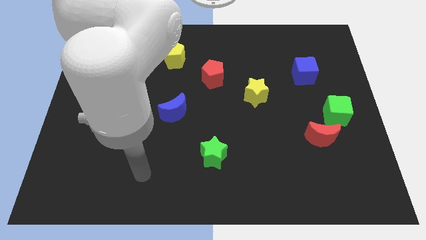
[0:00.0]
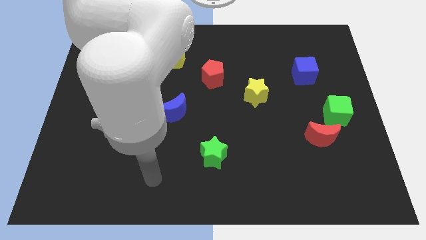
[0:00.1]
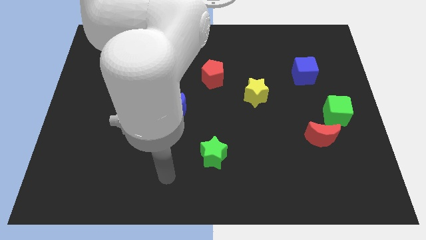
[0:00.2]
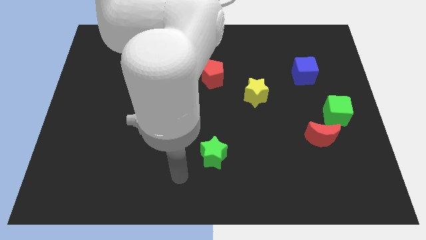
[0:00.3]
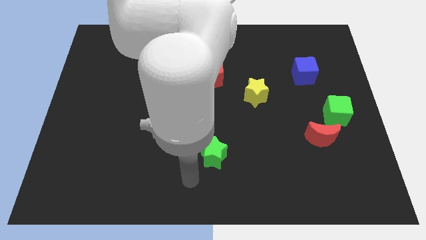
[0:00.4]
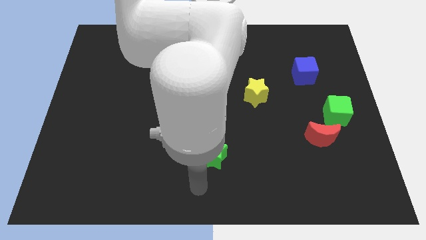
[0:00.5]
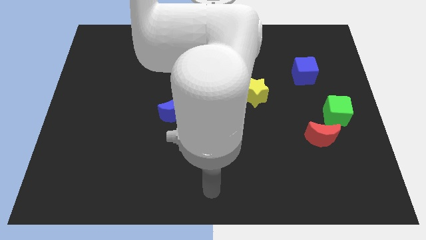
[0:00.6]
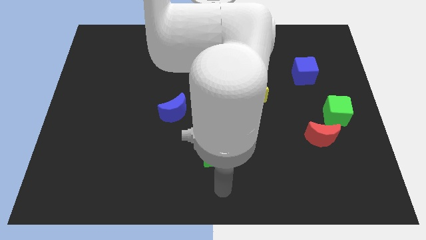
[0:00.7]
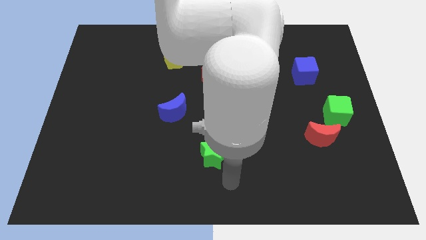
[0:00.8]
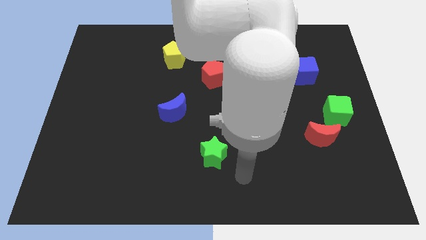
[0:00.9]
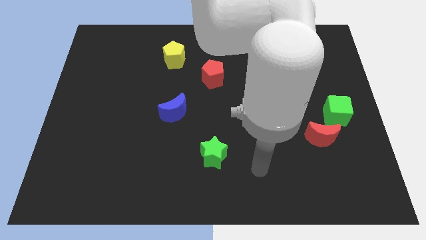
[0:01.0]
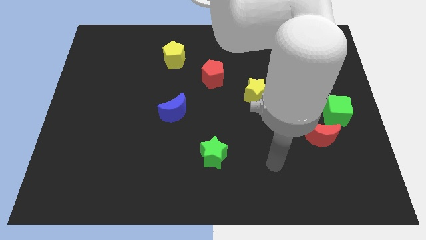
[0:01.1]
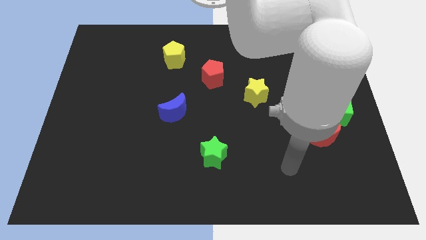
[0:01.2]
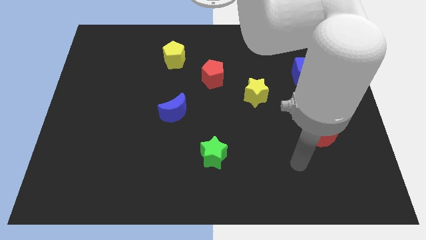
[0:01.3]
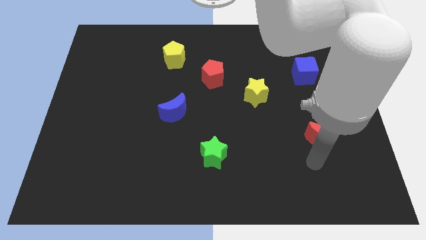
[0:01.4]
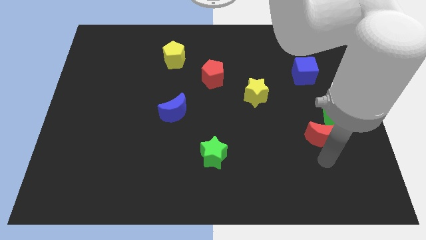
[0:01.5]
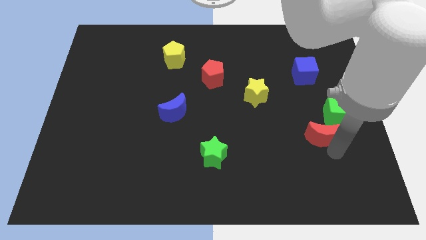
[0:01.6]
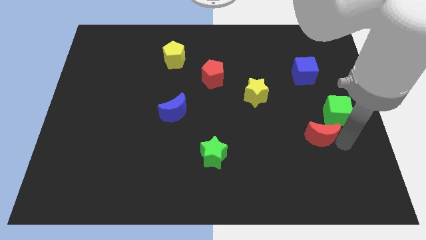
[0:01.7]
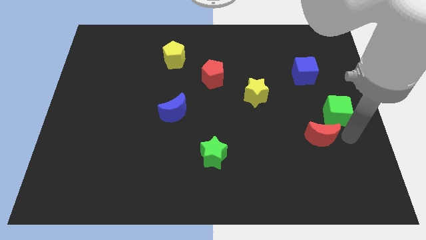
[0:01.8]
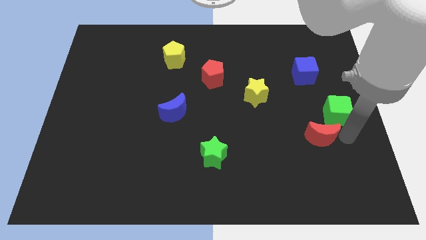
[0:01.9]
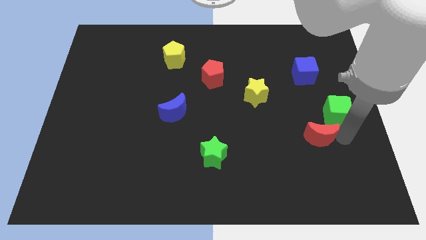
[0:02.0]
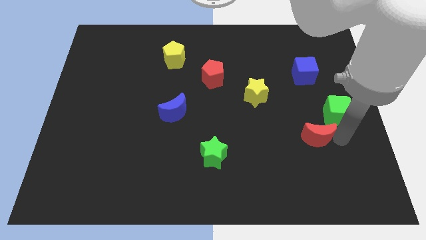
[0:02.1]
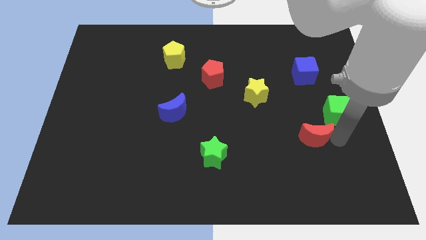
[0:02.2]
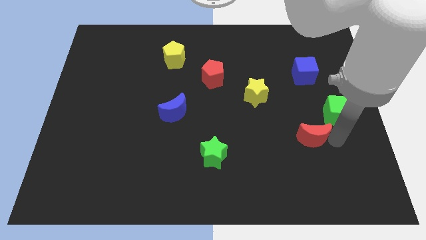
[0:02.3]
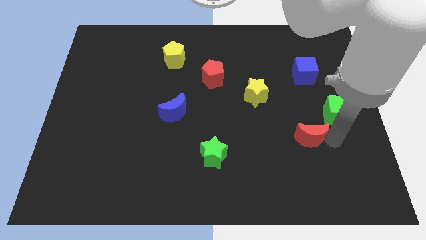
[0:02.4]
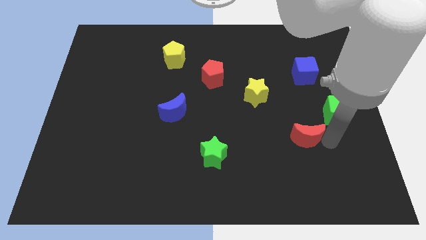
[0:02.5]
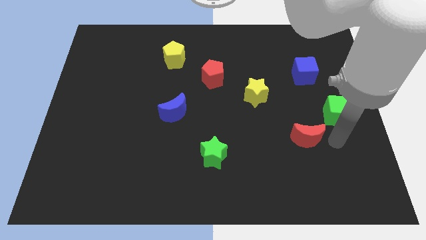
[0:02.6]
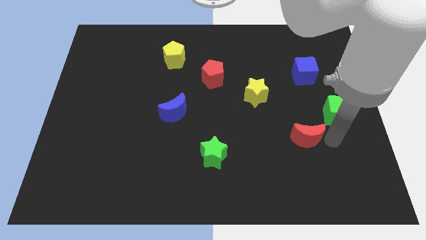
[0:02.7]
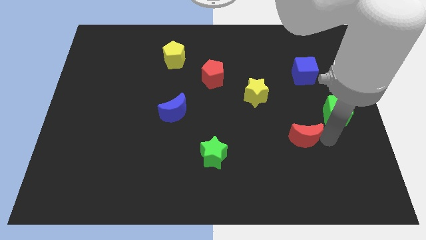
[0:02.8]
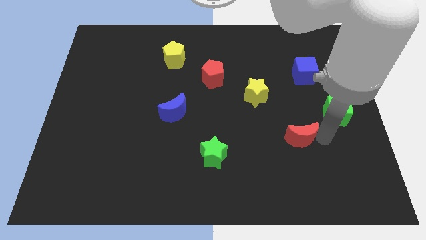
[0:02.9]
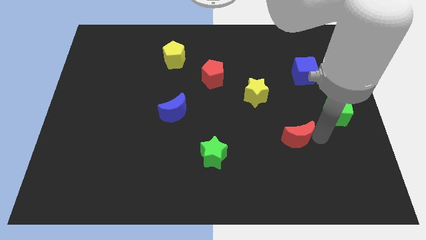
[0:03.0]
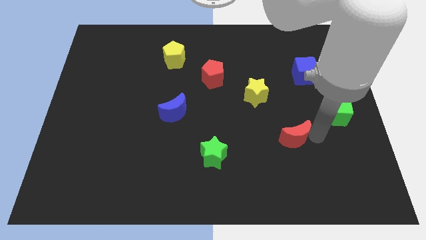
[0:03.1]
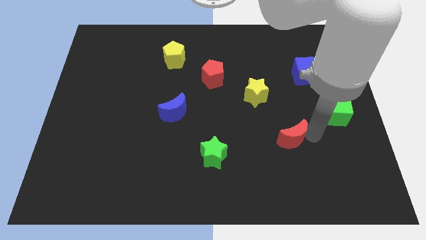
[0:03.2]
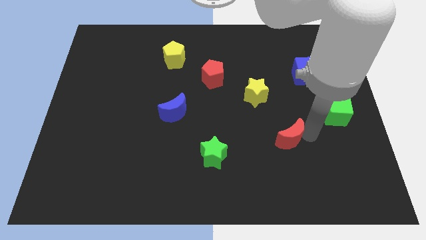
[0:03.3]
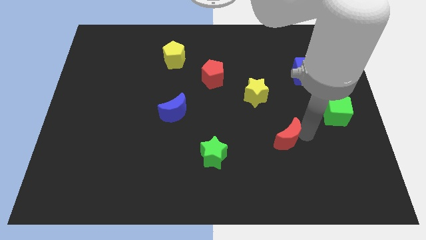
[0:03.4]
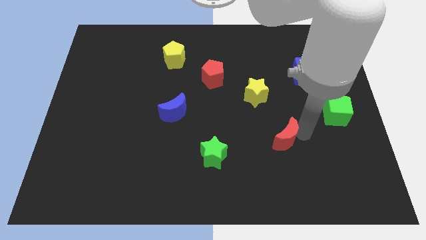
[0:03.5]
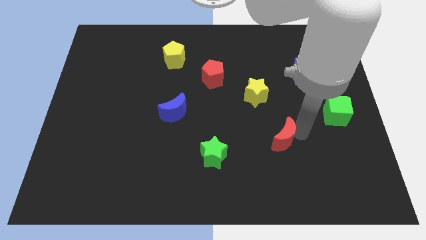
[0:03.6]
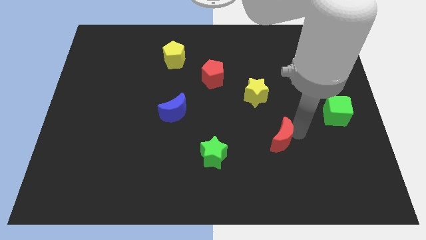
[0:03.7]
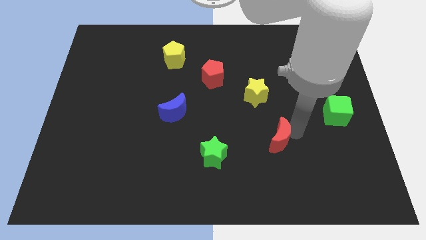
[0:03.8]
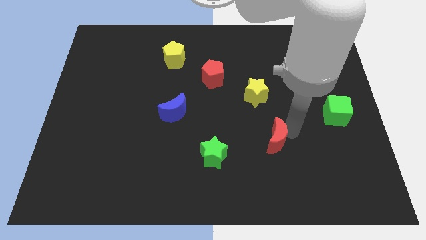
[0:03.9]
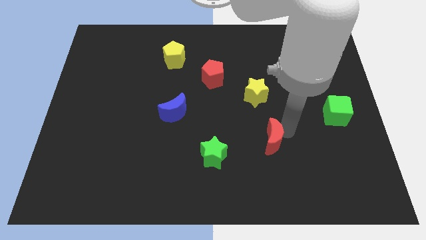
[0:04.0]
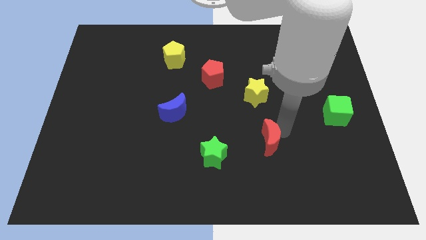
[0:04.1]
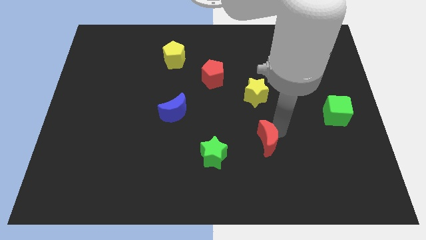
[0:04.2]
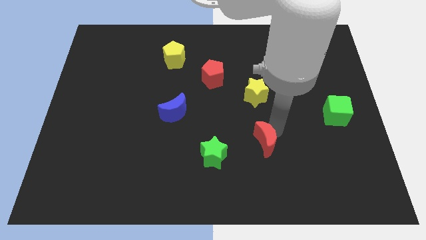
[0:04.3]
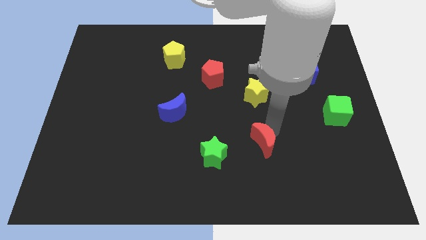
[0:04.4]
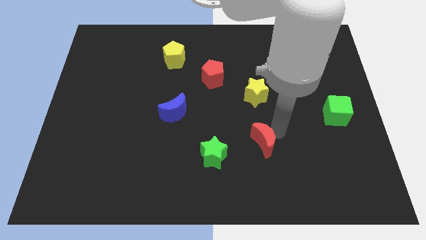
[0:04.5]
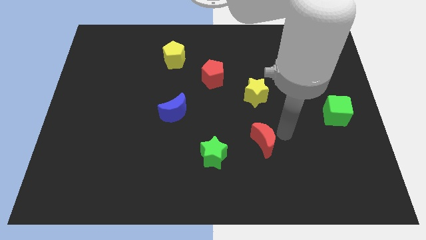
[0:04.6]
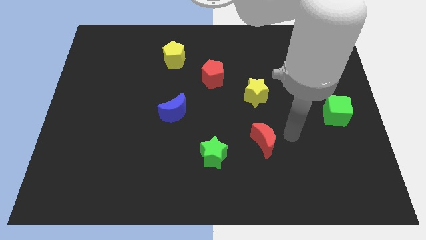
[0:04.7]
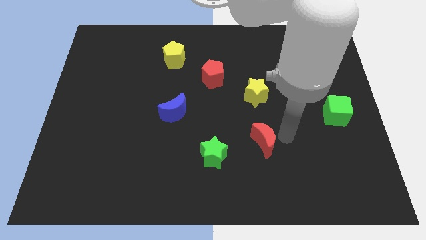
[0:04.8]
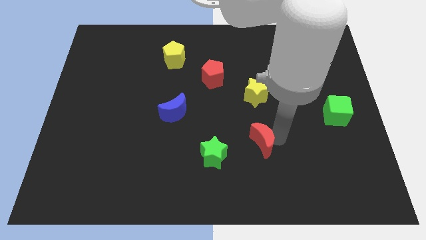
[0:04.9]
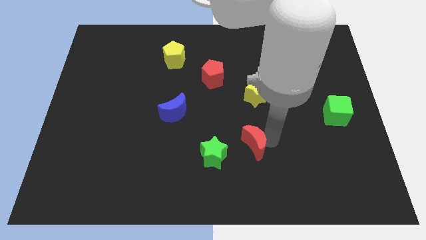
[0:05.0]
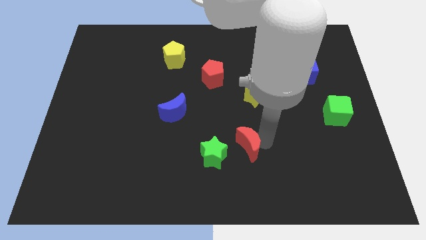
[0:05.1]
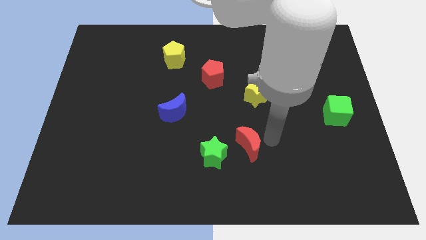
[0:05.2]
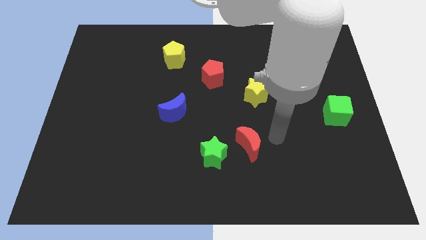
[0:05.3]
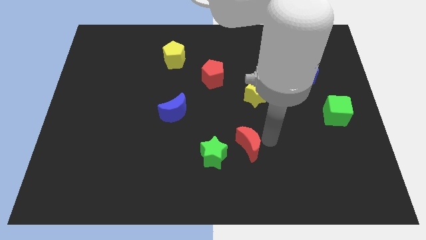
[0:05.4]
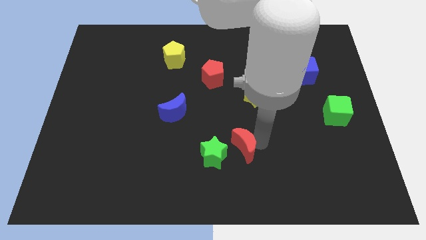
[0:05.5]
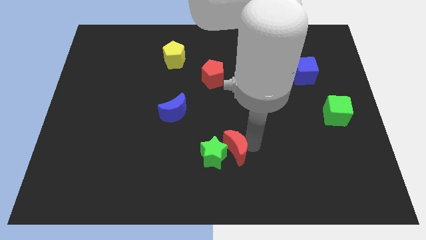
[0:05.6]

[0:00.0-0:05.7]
push the red moon close to the green star

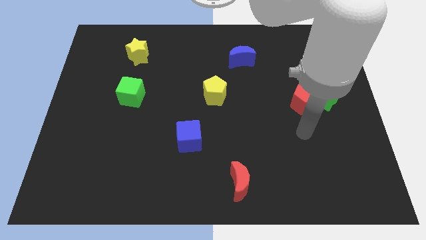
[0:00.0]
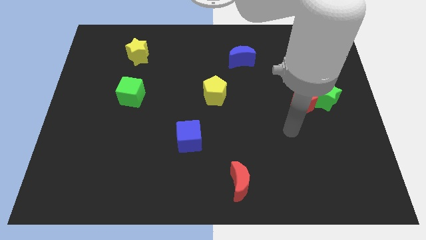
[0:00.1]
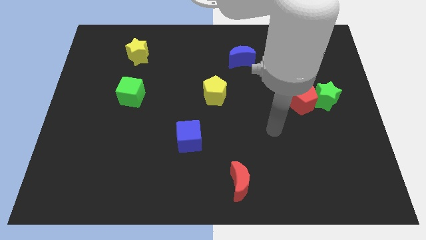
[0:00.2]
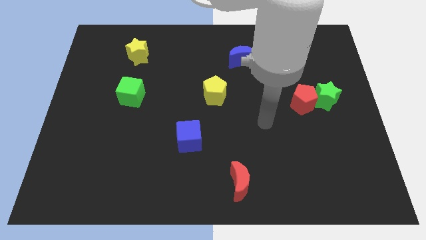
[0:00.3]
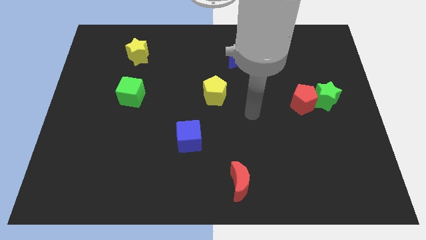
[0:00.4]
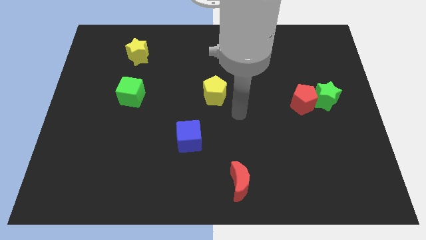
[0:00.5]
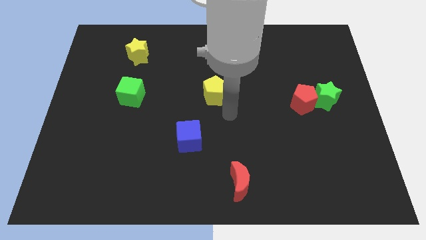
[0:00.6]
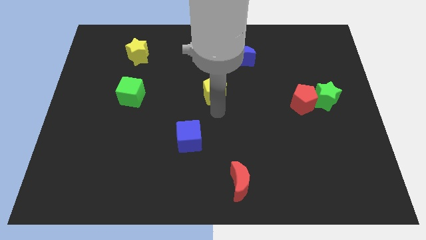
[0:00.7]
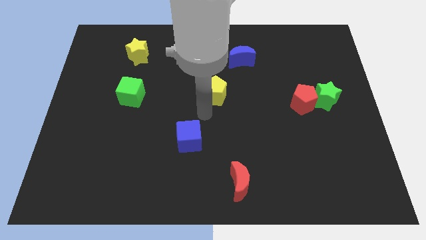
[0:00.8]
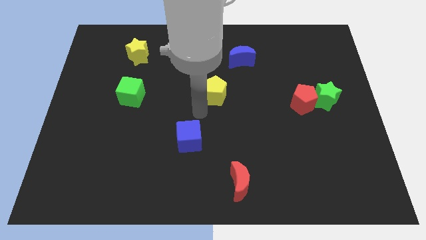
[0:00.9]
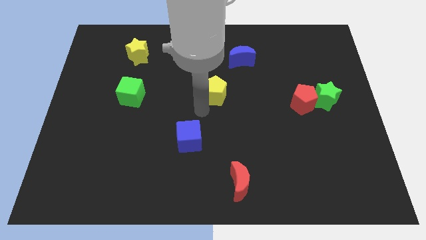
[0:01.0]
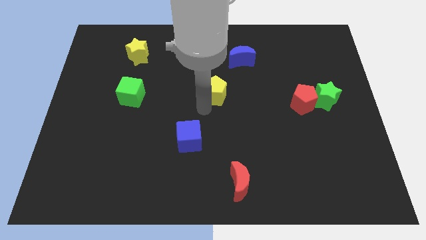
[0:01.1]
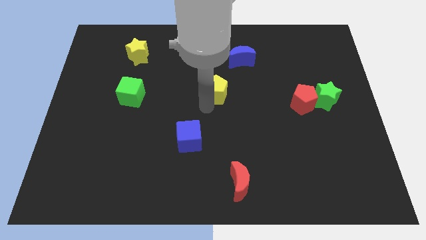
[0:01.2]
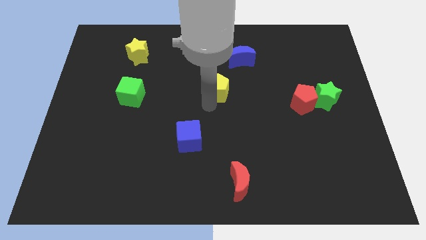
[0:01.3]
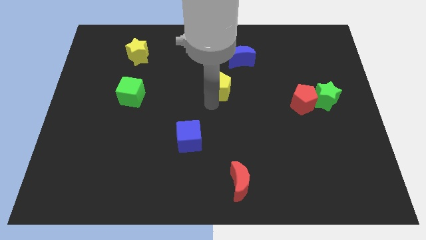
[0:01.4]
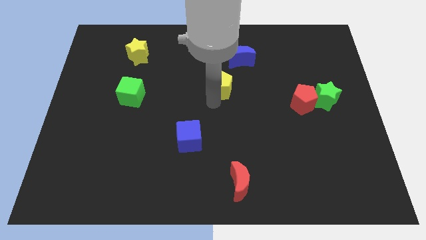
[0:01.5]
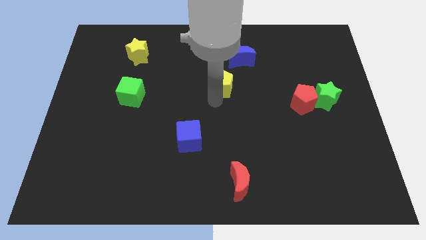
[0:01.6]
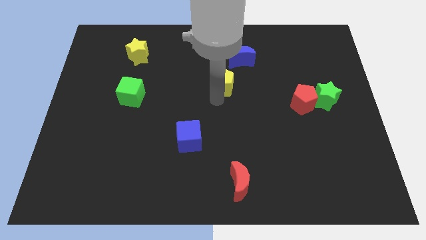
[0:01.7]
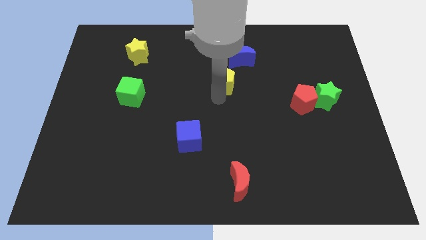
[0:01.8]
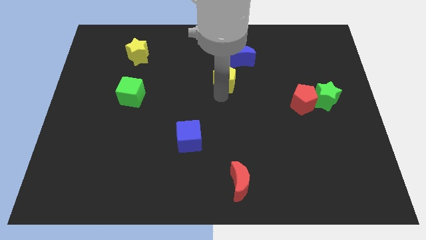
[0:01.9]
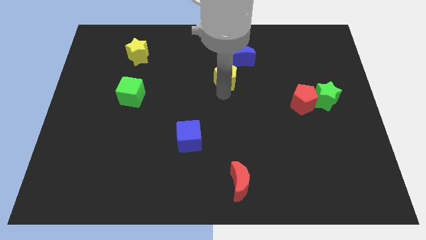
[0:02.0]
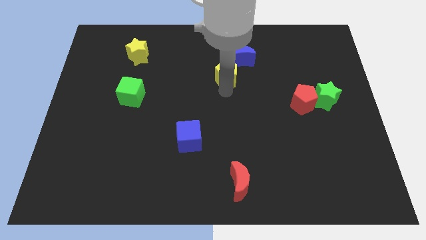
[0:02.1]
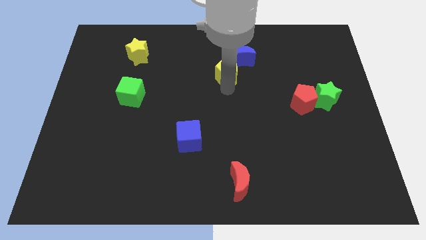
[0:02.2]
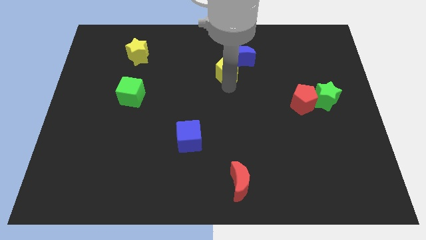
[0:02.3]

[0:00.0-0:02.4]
move the yellow pentagon next to the blue moon
